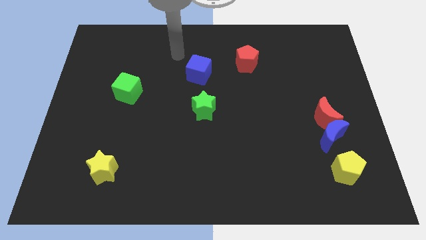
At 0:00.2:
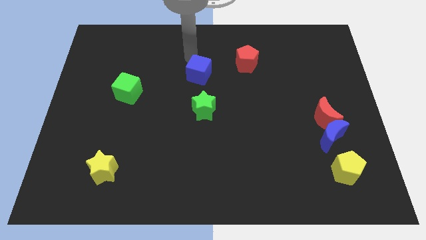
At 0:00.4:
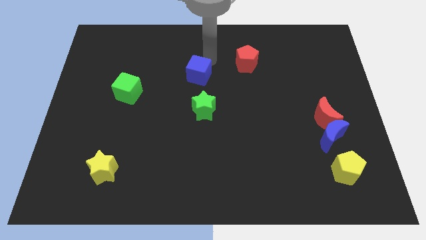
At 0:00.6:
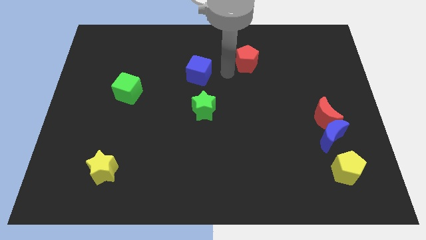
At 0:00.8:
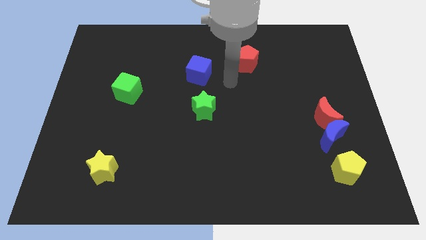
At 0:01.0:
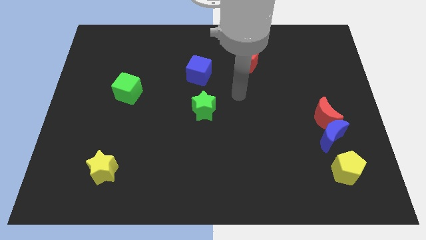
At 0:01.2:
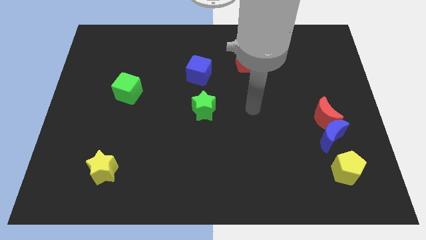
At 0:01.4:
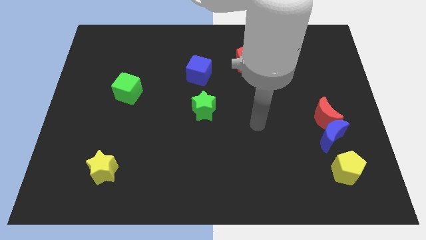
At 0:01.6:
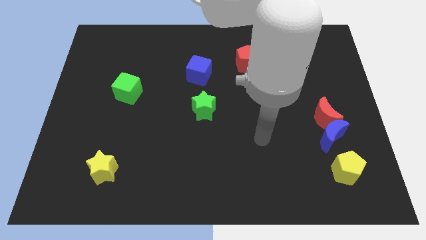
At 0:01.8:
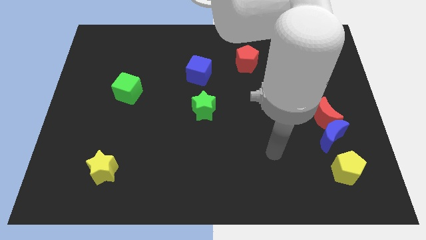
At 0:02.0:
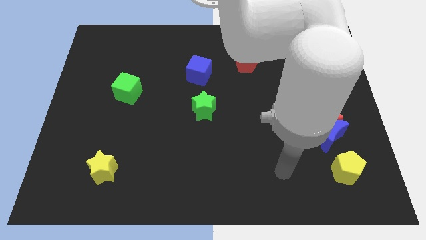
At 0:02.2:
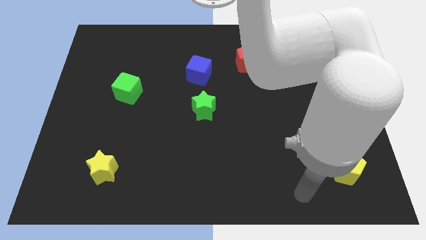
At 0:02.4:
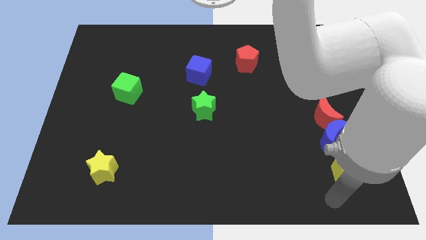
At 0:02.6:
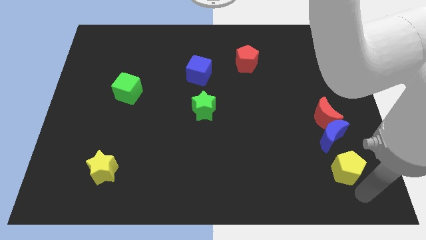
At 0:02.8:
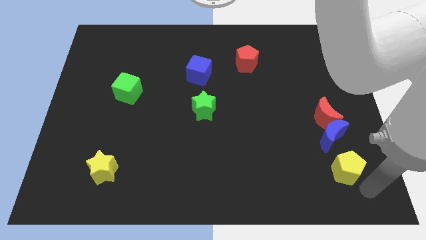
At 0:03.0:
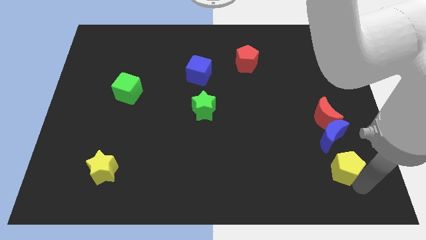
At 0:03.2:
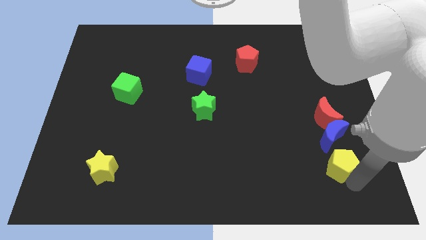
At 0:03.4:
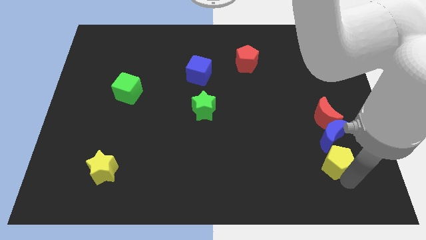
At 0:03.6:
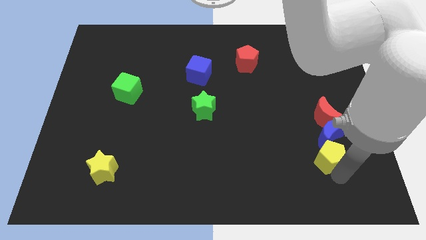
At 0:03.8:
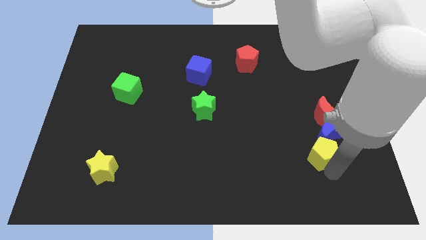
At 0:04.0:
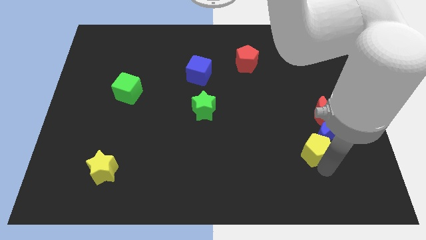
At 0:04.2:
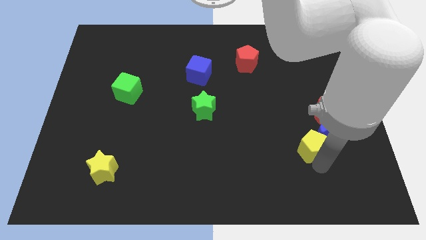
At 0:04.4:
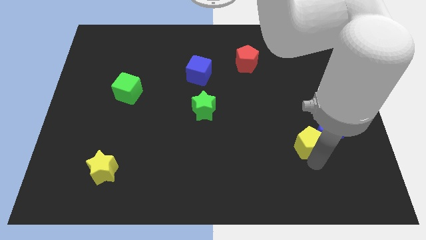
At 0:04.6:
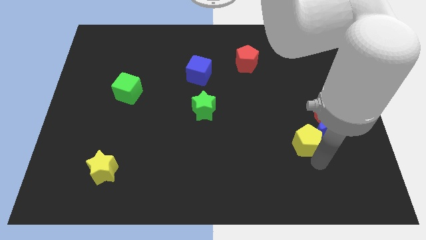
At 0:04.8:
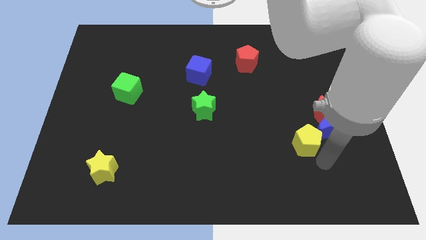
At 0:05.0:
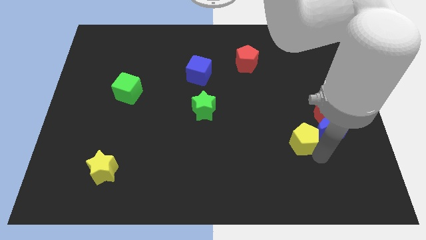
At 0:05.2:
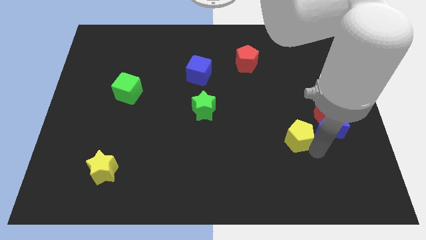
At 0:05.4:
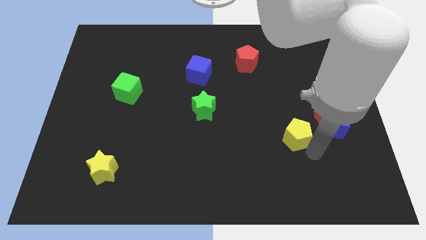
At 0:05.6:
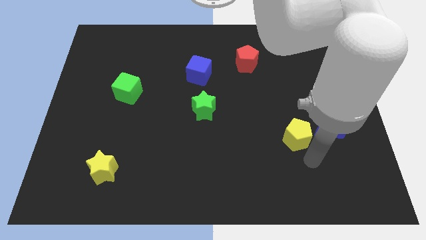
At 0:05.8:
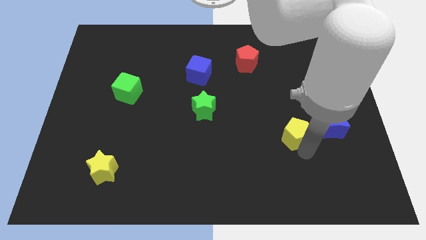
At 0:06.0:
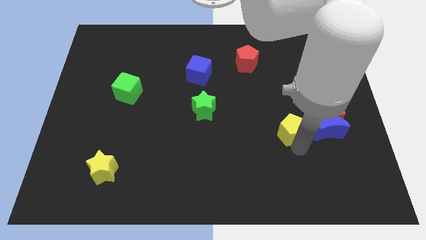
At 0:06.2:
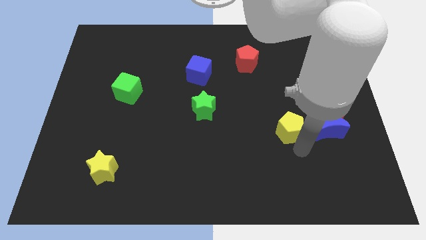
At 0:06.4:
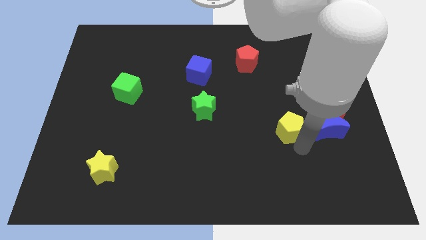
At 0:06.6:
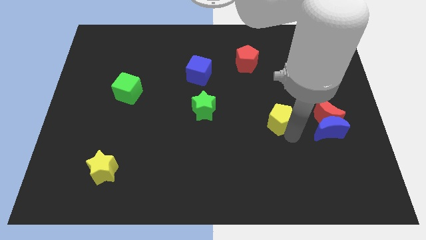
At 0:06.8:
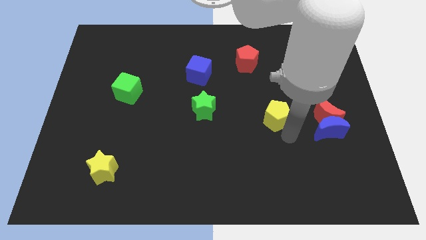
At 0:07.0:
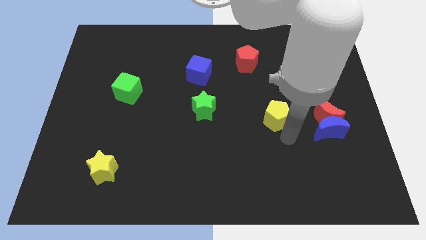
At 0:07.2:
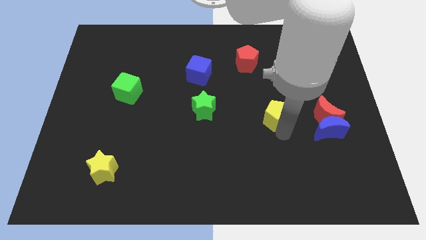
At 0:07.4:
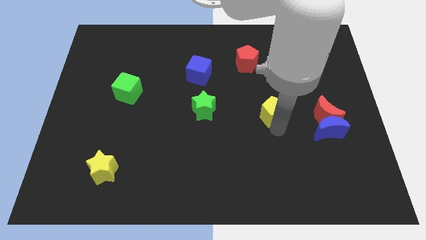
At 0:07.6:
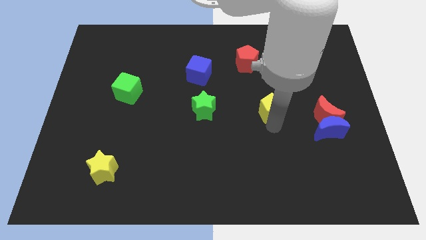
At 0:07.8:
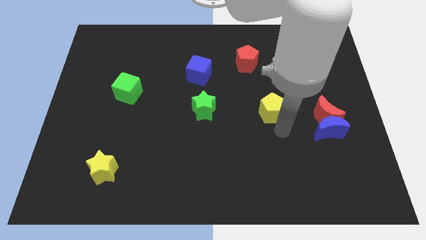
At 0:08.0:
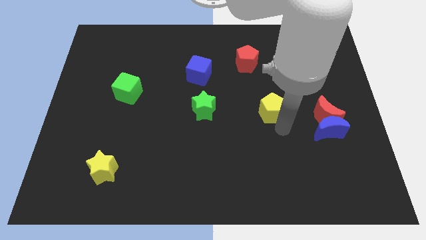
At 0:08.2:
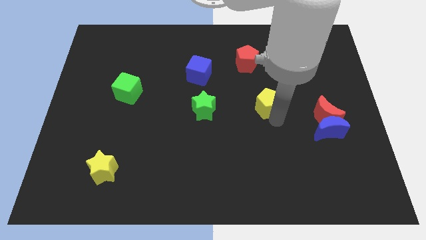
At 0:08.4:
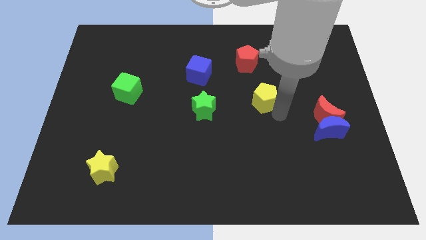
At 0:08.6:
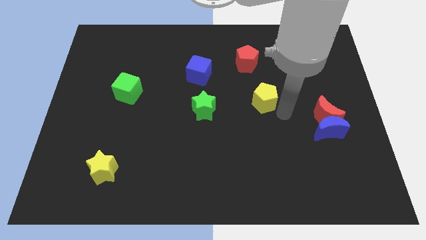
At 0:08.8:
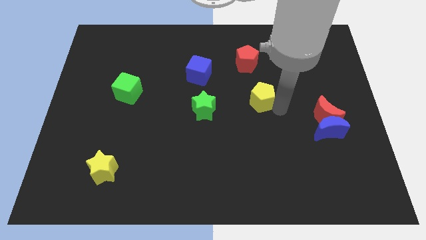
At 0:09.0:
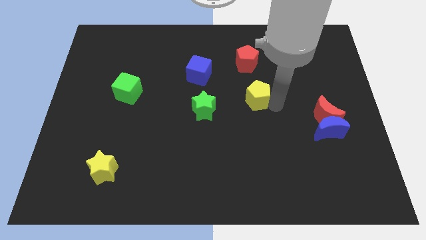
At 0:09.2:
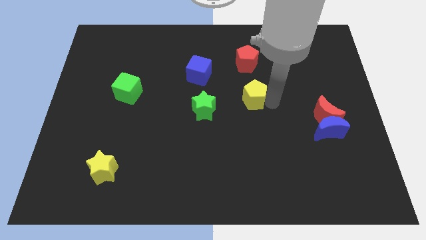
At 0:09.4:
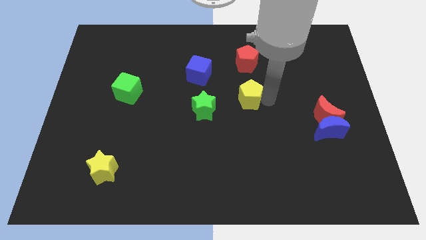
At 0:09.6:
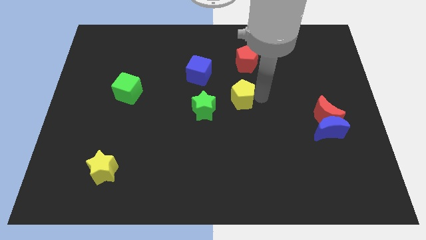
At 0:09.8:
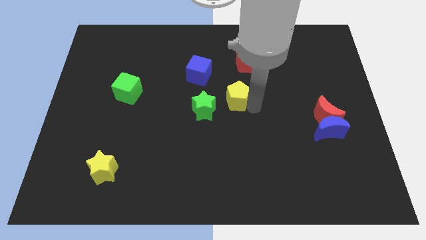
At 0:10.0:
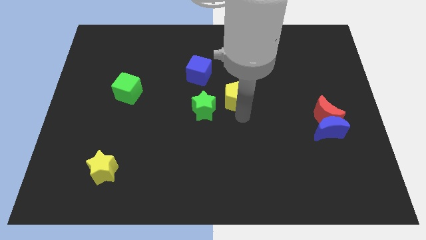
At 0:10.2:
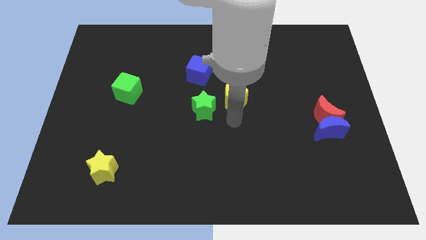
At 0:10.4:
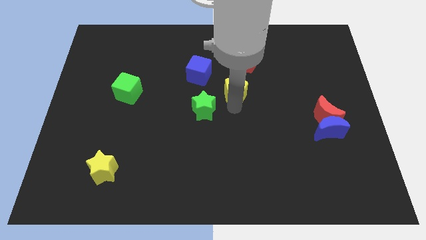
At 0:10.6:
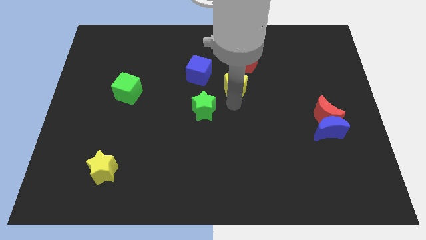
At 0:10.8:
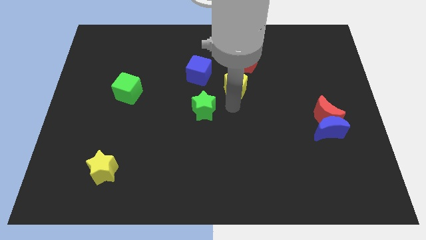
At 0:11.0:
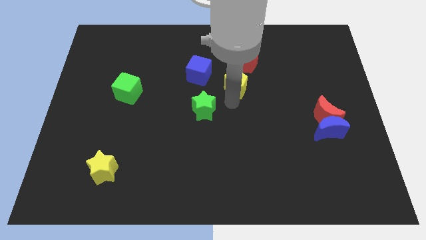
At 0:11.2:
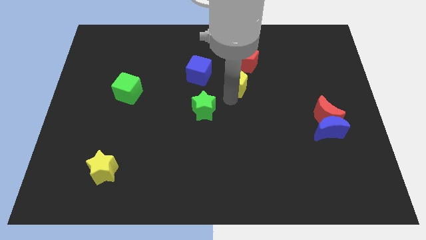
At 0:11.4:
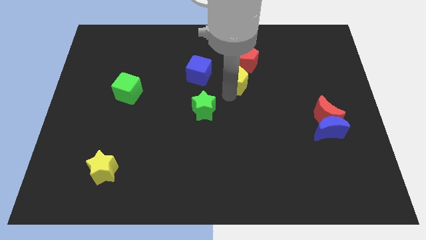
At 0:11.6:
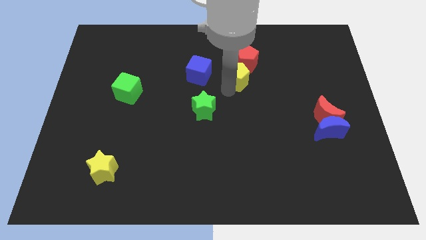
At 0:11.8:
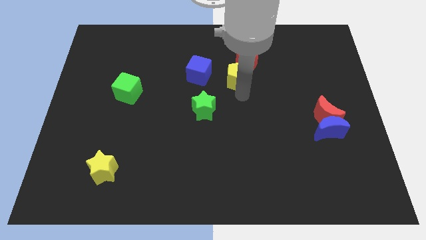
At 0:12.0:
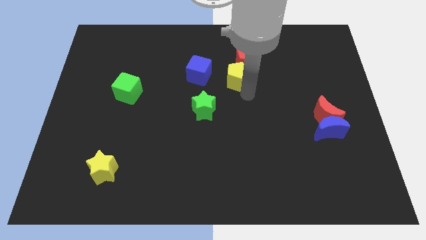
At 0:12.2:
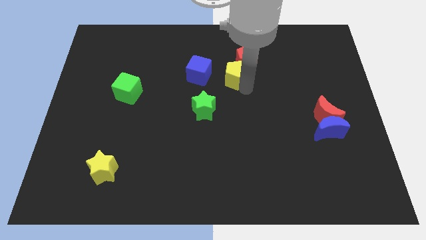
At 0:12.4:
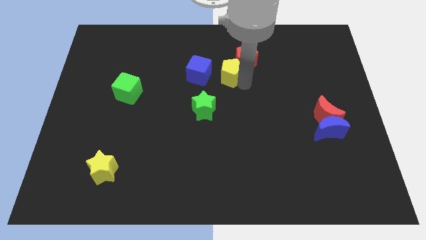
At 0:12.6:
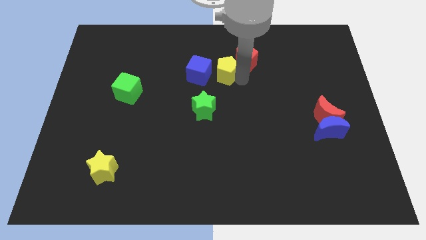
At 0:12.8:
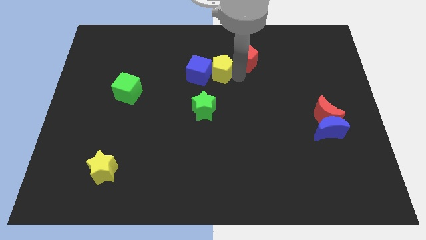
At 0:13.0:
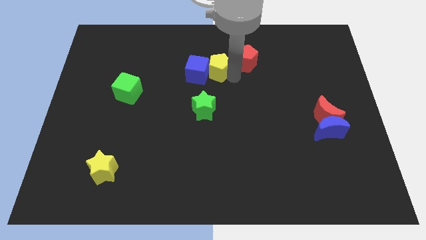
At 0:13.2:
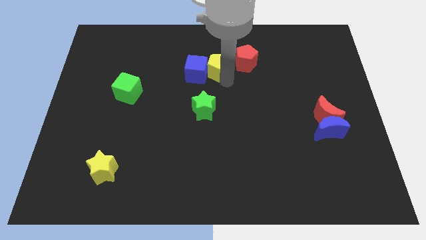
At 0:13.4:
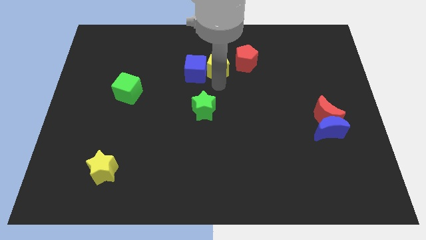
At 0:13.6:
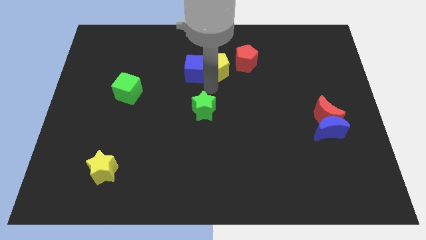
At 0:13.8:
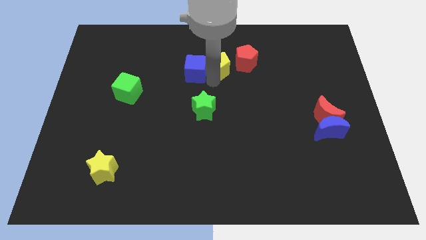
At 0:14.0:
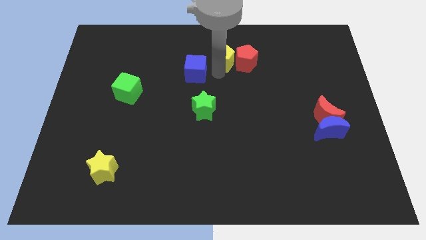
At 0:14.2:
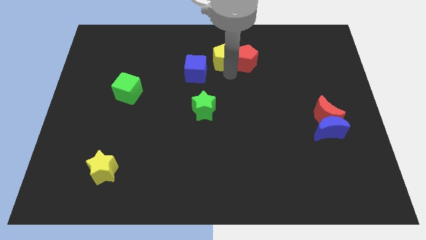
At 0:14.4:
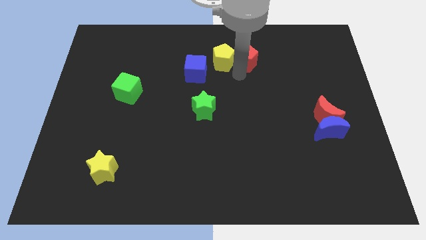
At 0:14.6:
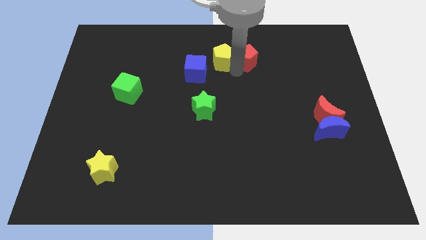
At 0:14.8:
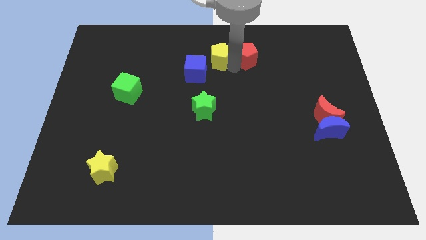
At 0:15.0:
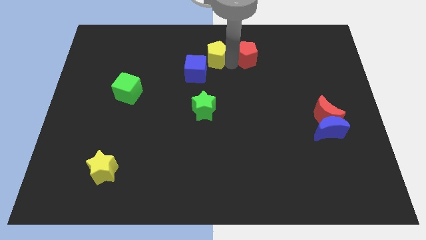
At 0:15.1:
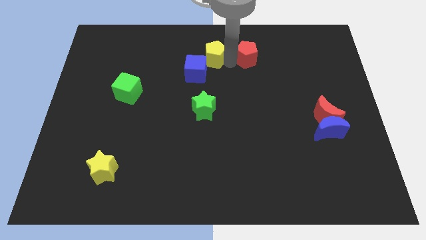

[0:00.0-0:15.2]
push the yellow pentagon to the top side
